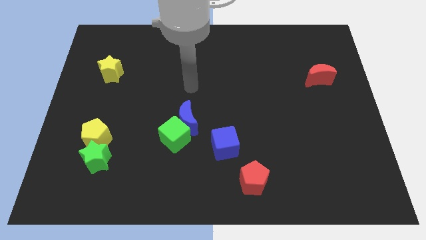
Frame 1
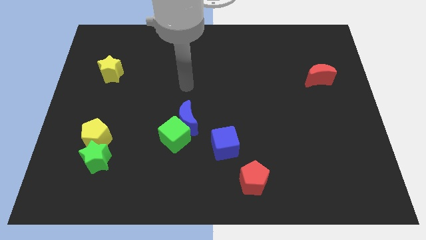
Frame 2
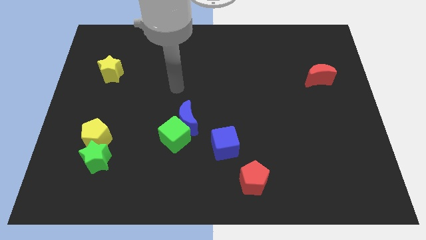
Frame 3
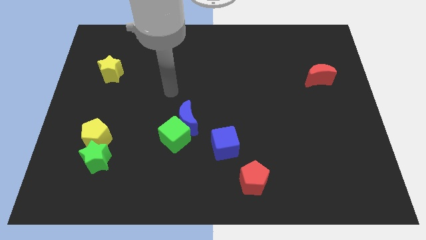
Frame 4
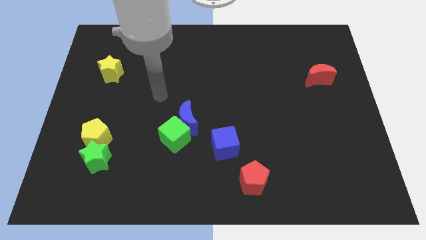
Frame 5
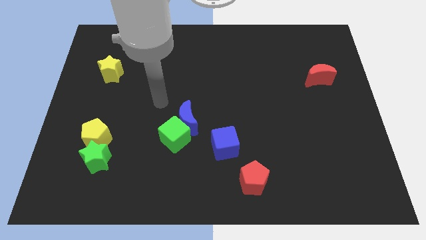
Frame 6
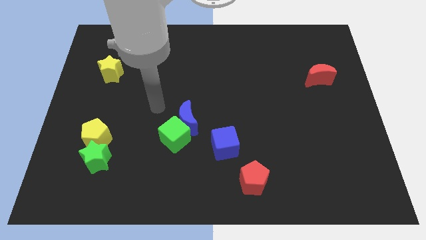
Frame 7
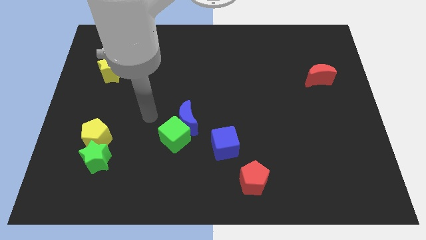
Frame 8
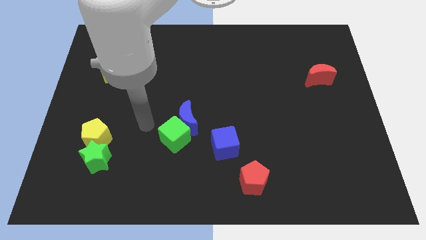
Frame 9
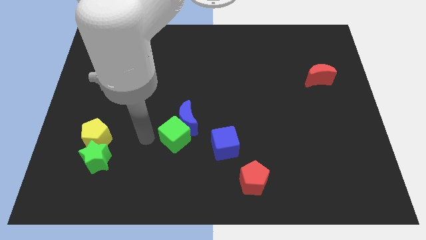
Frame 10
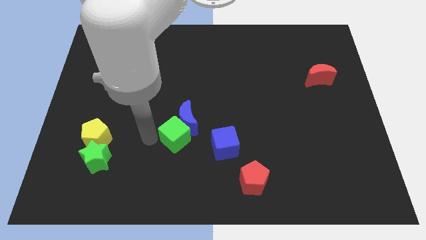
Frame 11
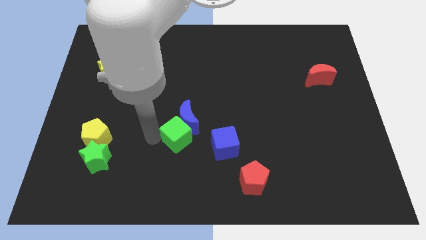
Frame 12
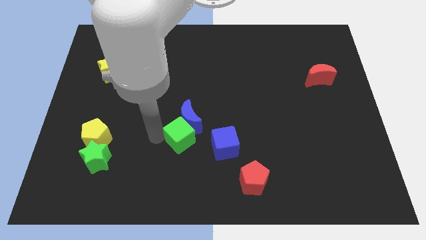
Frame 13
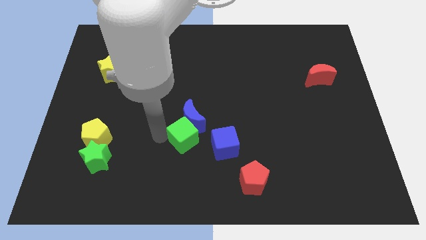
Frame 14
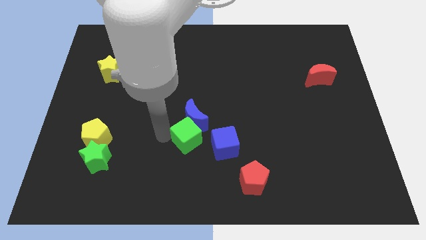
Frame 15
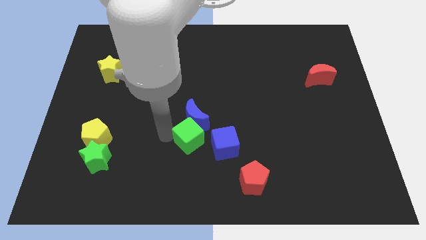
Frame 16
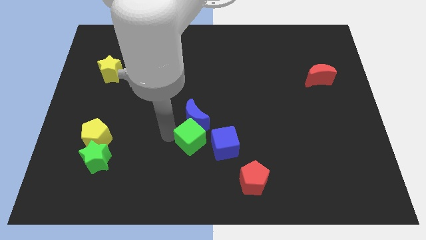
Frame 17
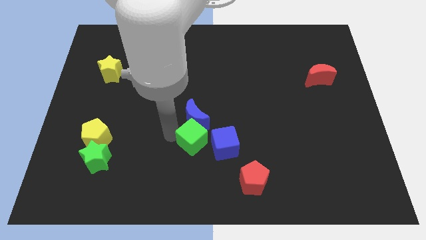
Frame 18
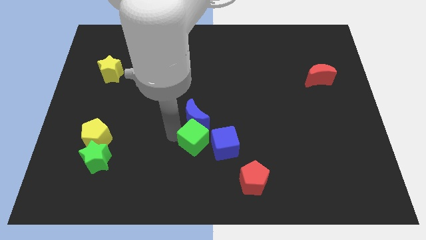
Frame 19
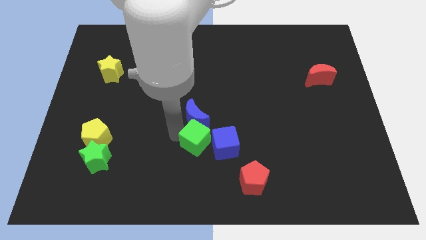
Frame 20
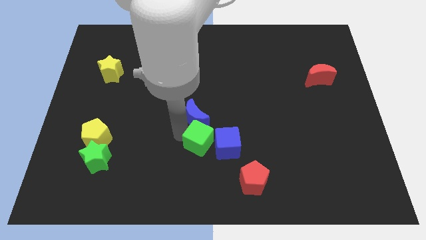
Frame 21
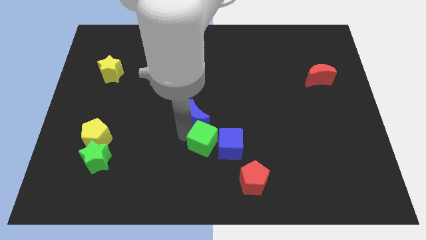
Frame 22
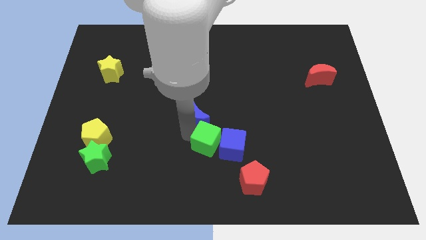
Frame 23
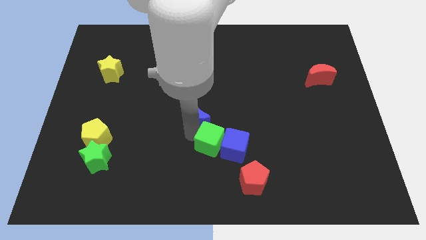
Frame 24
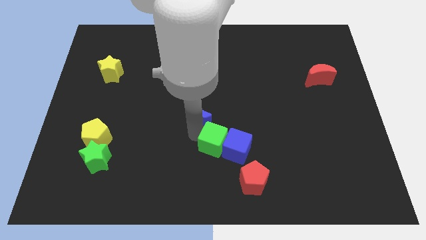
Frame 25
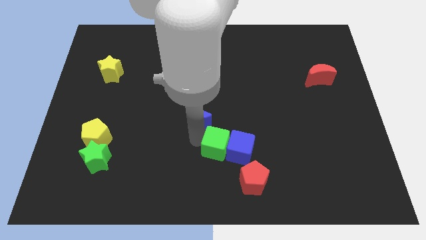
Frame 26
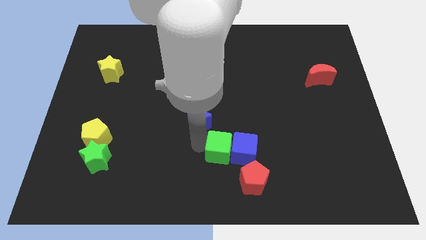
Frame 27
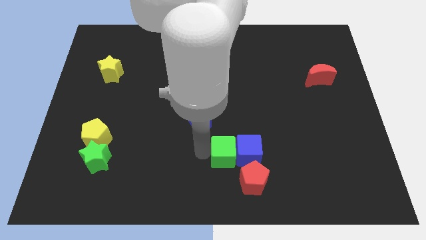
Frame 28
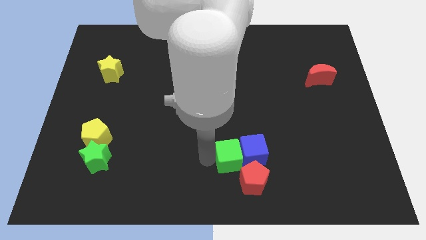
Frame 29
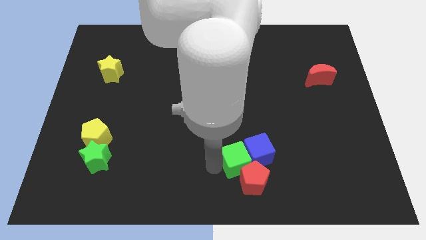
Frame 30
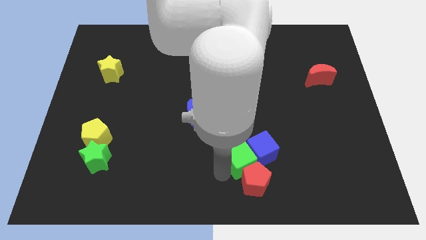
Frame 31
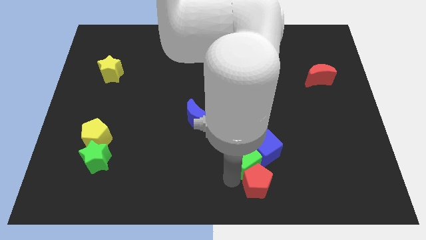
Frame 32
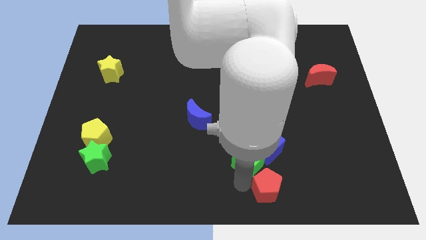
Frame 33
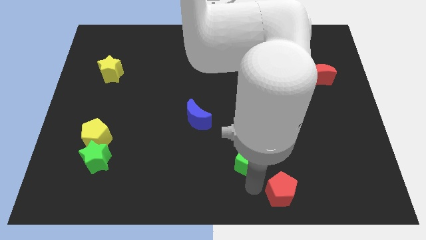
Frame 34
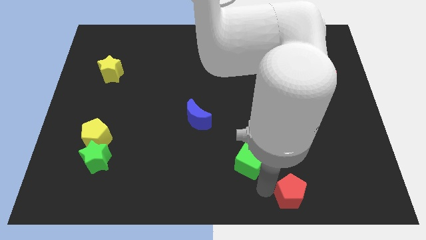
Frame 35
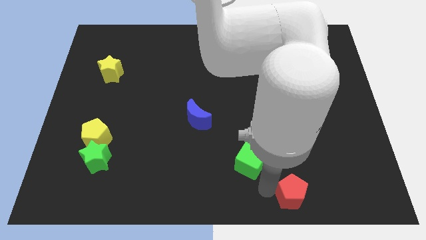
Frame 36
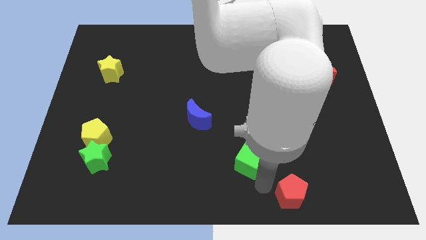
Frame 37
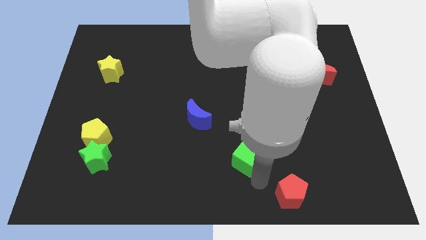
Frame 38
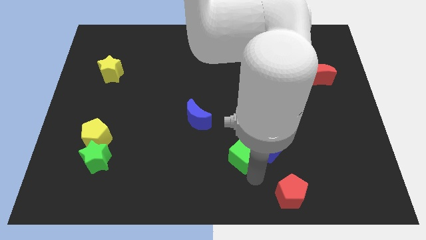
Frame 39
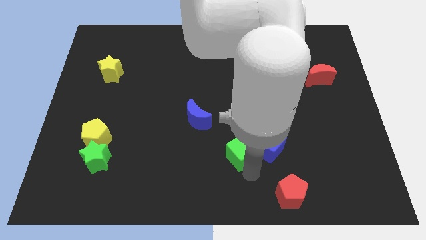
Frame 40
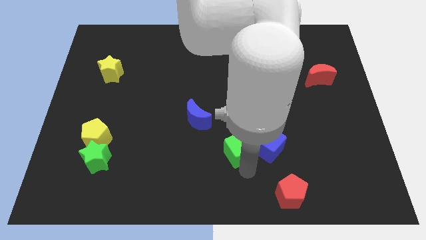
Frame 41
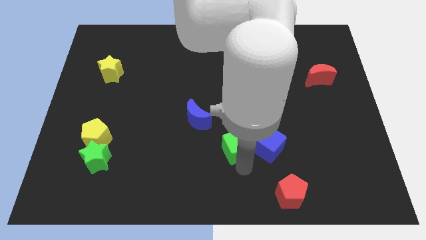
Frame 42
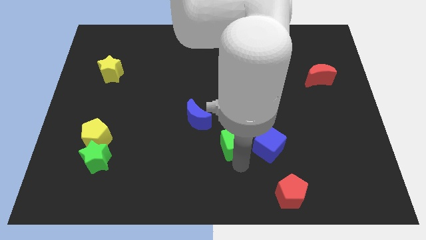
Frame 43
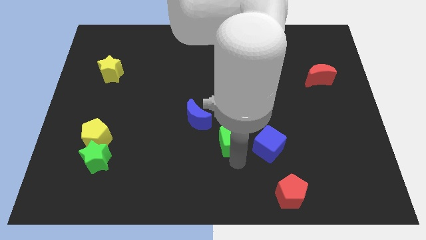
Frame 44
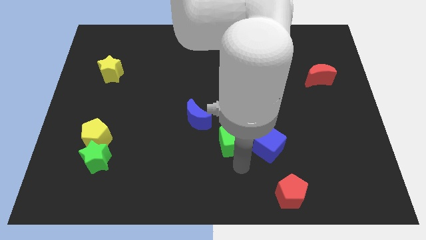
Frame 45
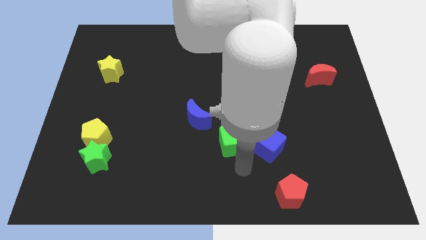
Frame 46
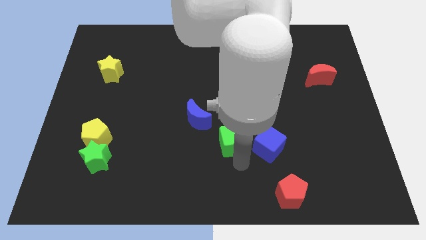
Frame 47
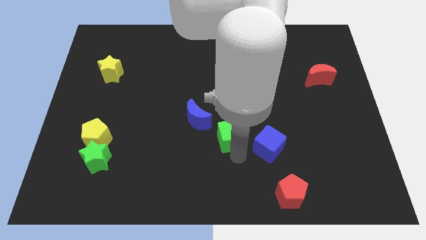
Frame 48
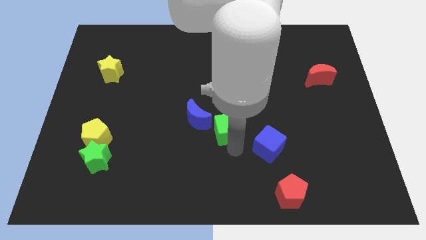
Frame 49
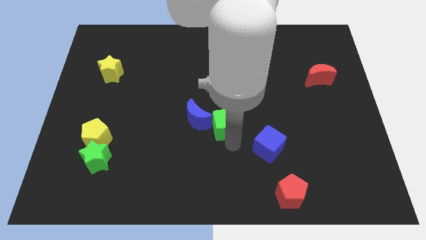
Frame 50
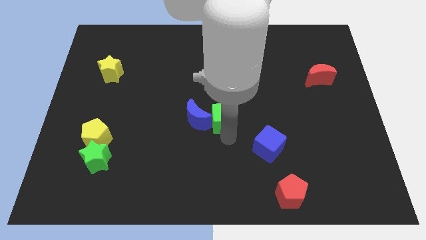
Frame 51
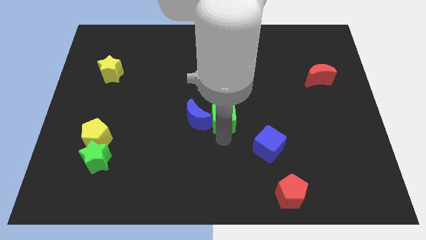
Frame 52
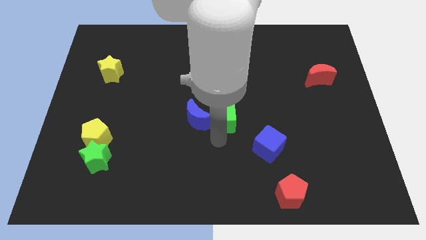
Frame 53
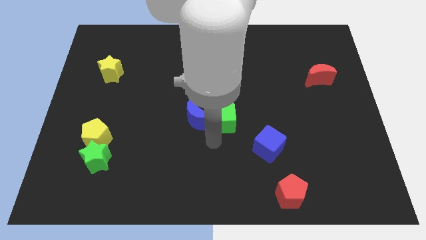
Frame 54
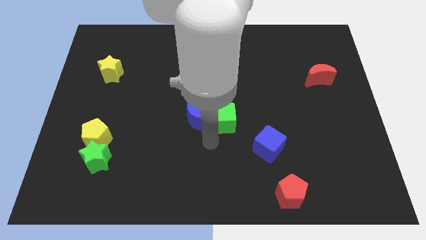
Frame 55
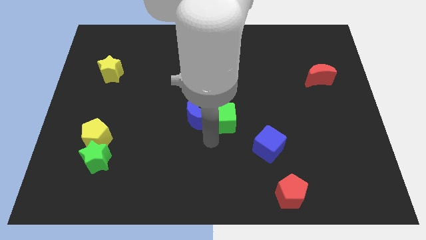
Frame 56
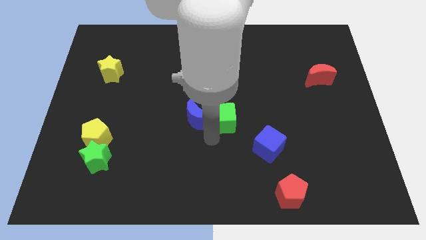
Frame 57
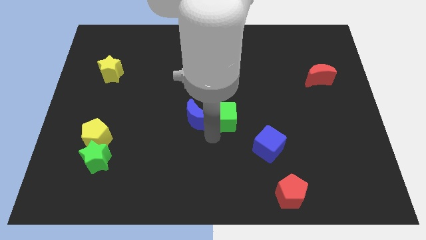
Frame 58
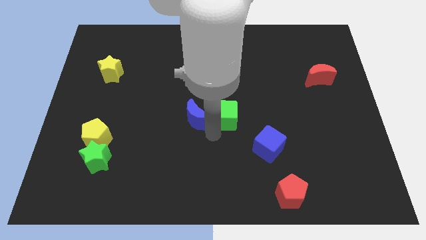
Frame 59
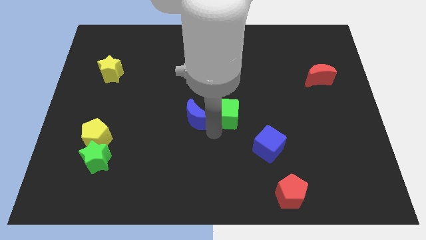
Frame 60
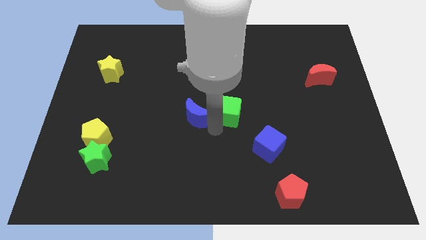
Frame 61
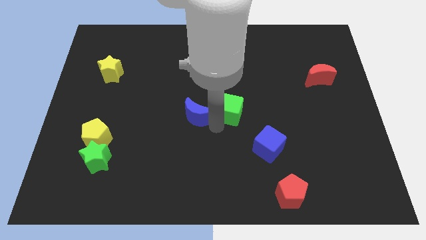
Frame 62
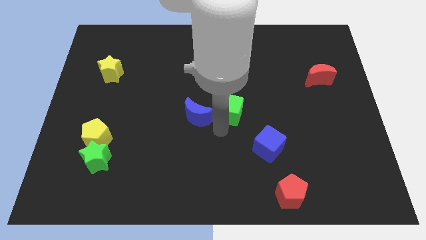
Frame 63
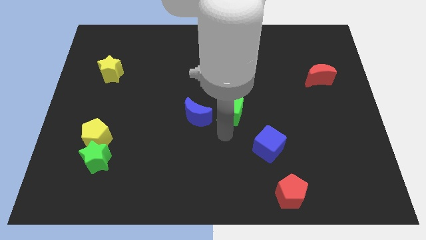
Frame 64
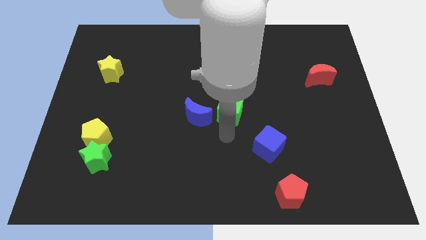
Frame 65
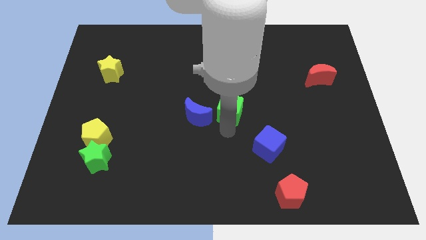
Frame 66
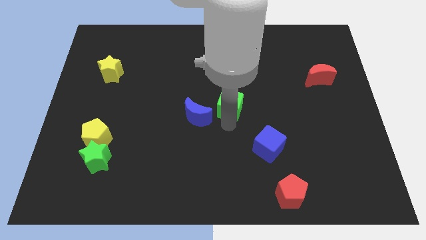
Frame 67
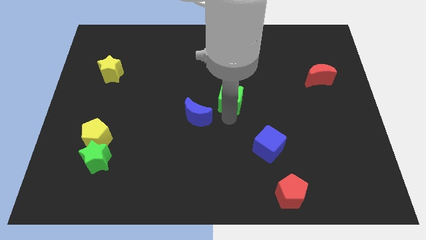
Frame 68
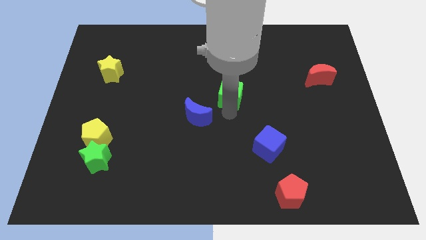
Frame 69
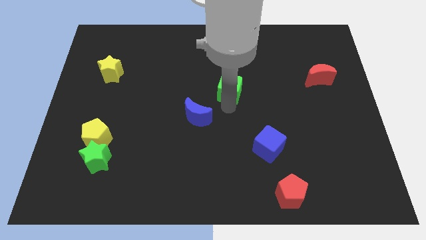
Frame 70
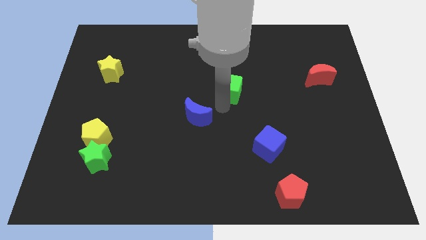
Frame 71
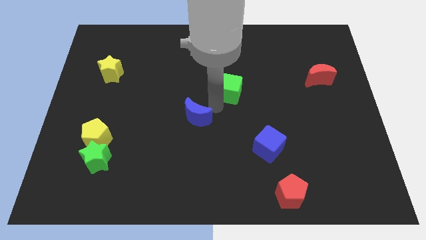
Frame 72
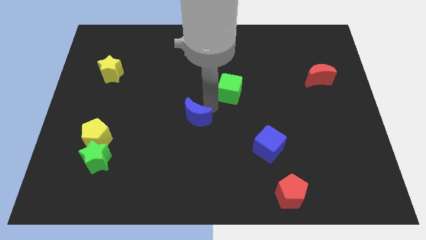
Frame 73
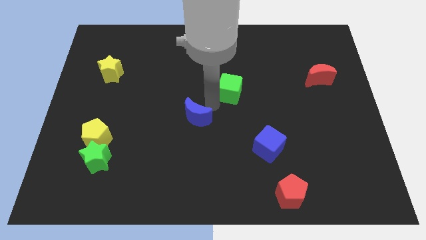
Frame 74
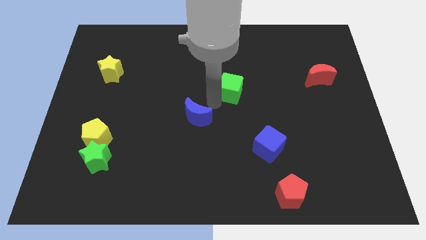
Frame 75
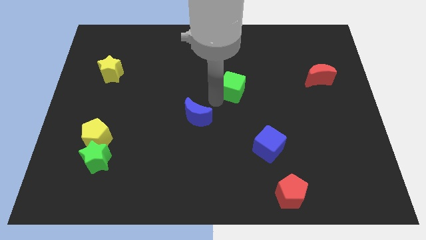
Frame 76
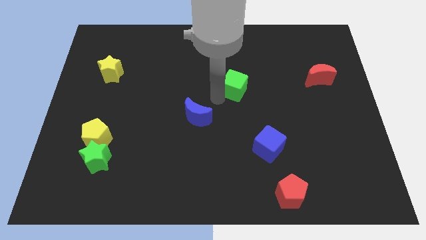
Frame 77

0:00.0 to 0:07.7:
slide the green cube up and right
